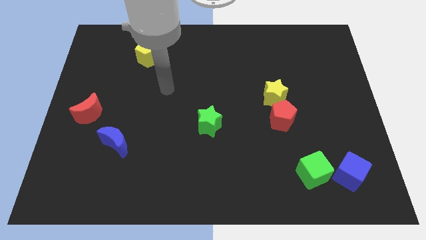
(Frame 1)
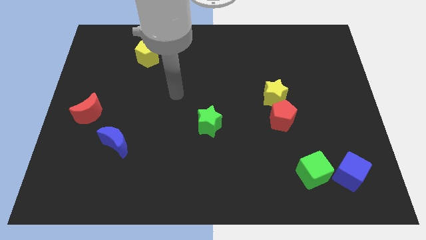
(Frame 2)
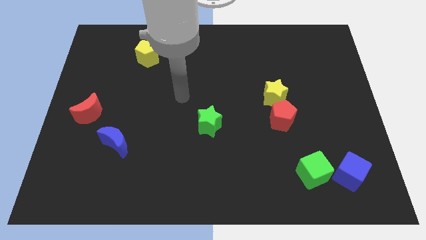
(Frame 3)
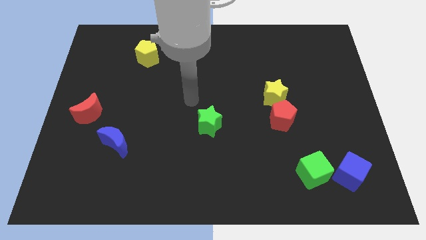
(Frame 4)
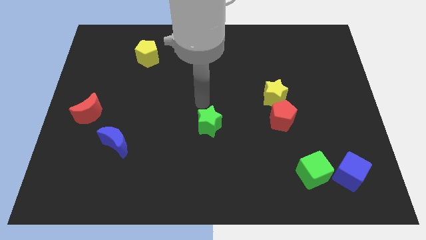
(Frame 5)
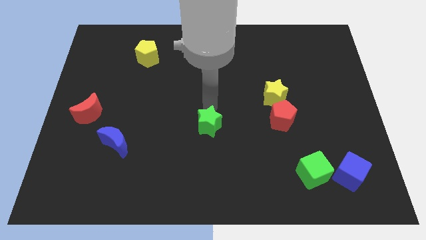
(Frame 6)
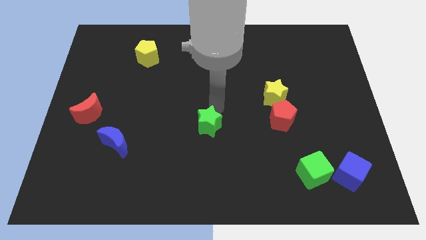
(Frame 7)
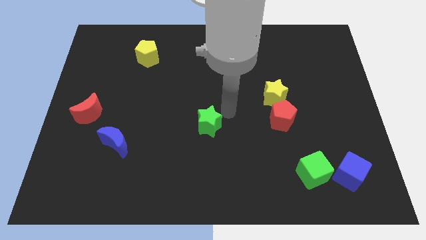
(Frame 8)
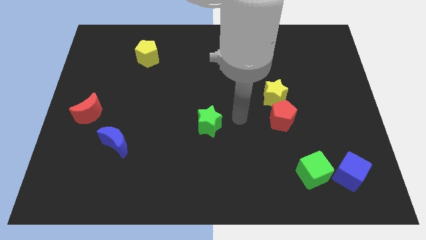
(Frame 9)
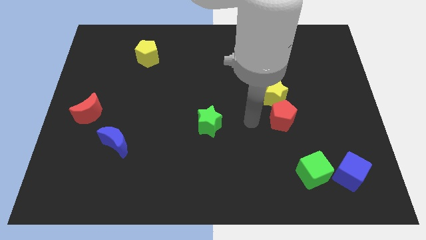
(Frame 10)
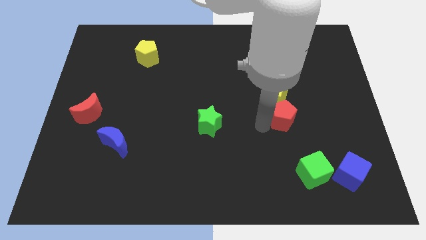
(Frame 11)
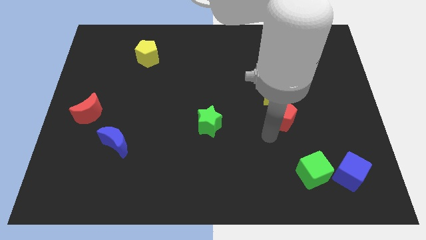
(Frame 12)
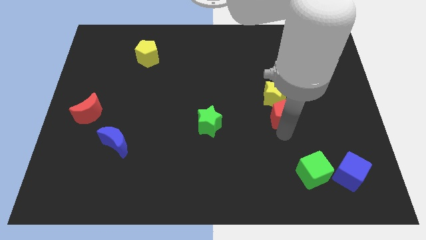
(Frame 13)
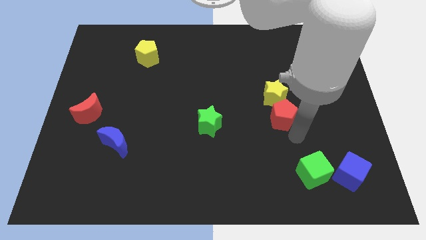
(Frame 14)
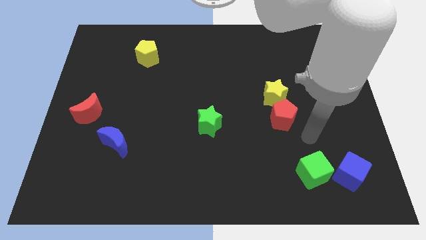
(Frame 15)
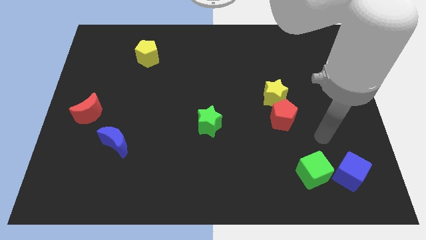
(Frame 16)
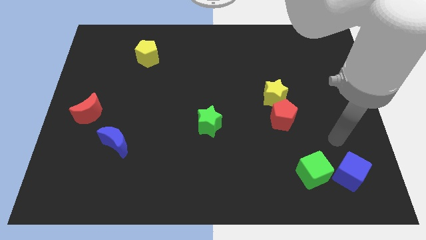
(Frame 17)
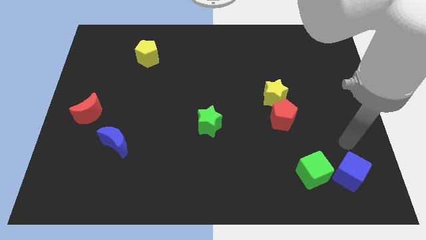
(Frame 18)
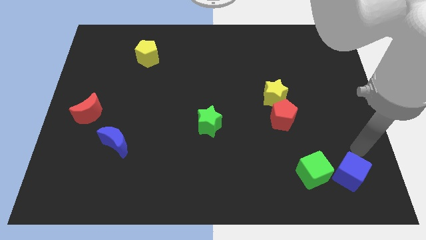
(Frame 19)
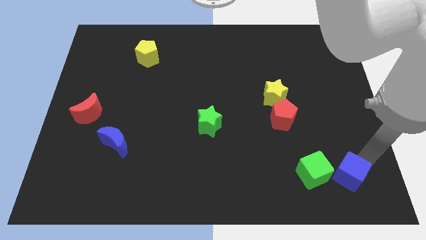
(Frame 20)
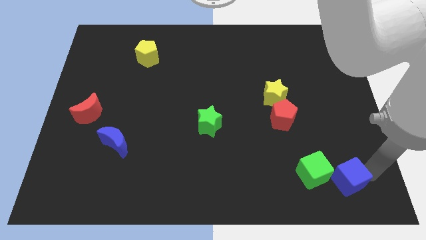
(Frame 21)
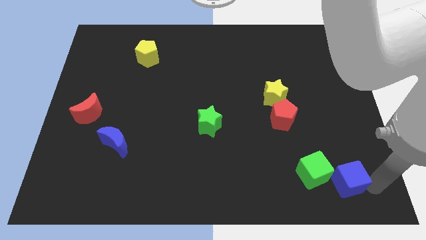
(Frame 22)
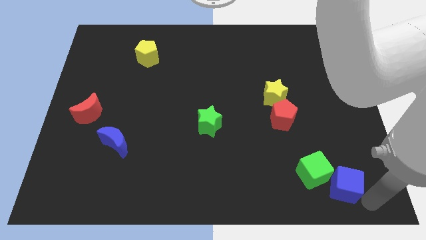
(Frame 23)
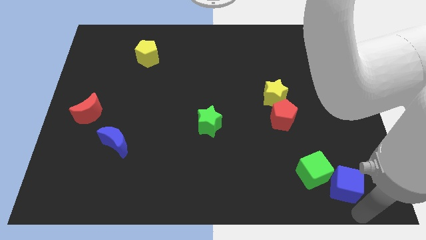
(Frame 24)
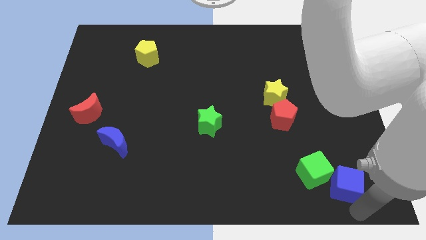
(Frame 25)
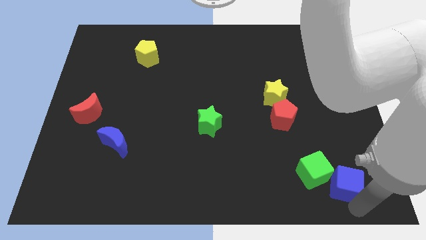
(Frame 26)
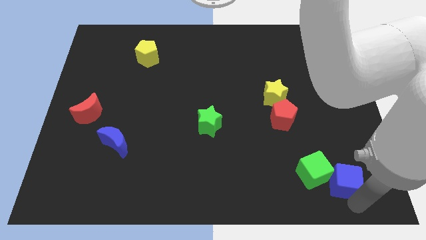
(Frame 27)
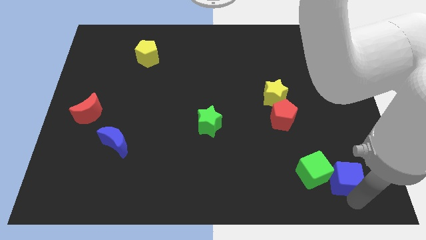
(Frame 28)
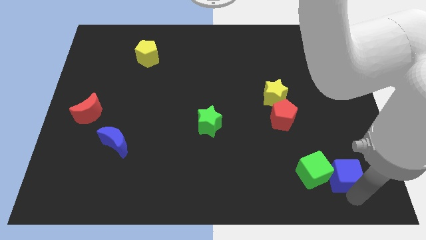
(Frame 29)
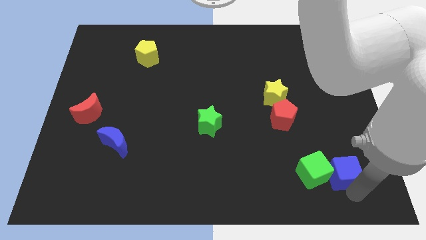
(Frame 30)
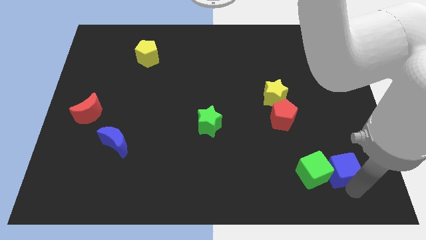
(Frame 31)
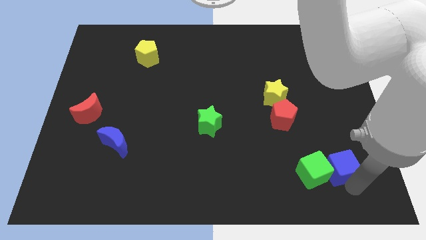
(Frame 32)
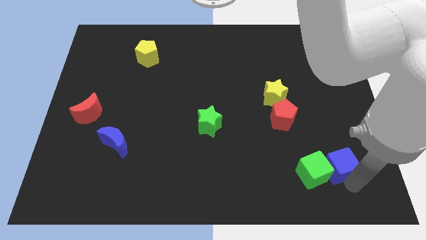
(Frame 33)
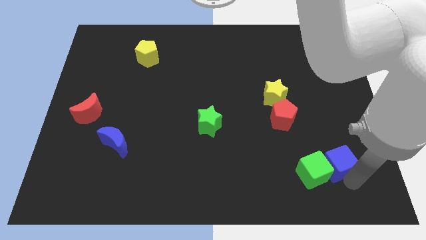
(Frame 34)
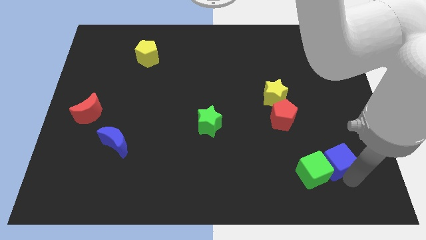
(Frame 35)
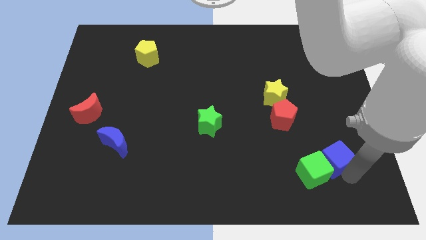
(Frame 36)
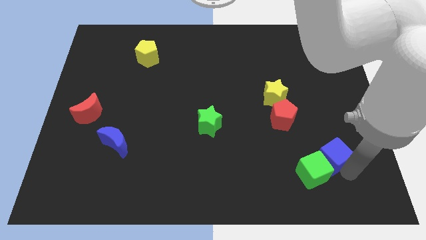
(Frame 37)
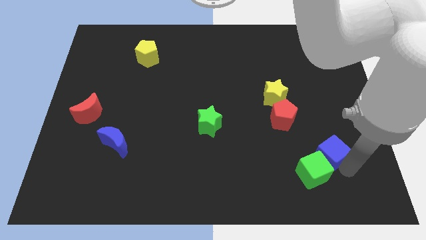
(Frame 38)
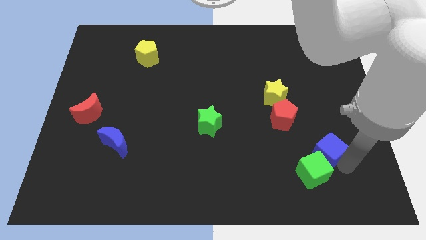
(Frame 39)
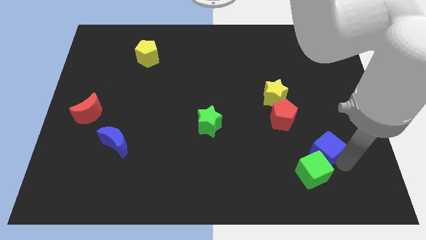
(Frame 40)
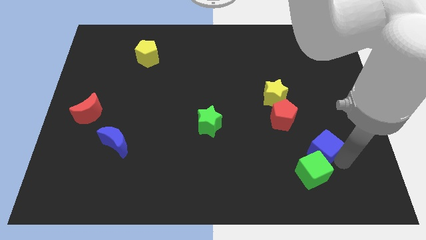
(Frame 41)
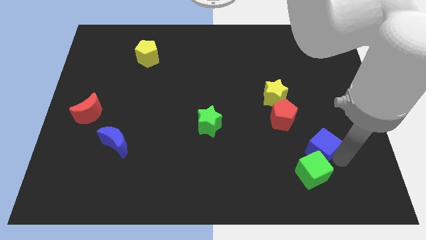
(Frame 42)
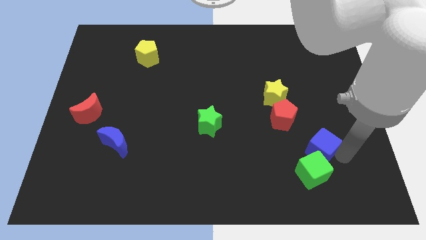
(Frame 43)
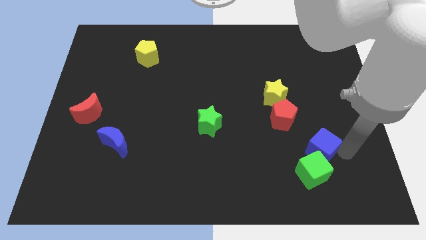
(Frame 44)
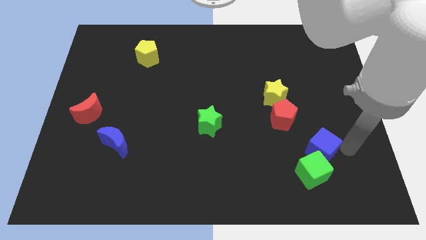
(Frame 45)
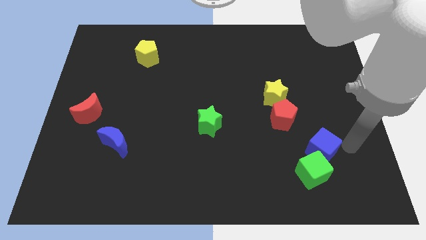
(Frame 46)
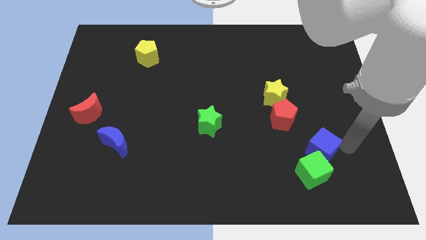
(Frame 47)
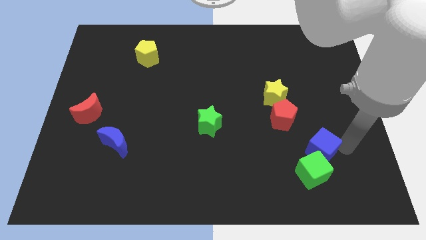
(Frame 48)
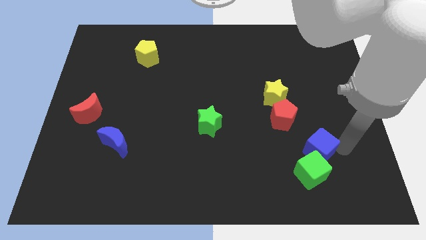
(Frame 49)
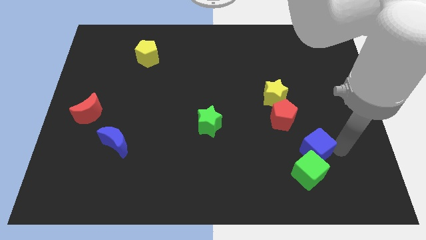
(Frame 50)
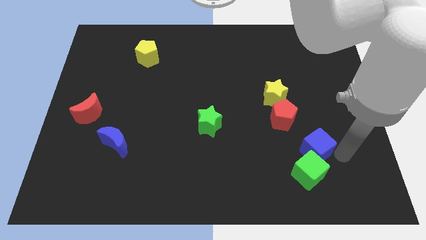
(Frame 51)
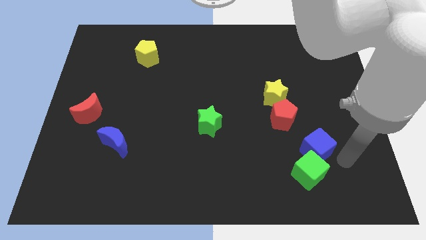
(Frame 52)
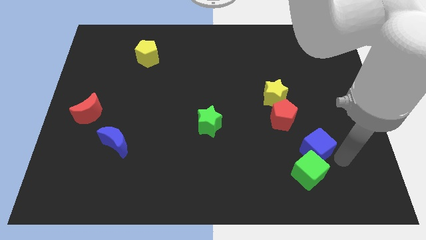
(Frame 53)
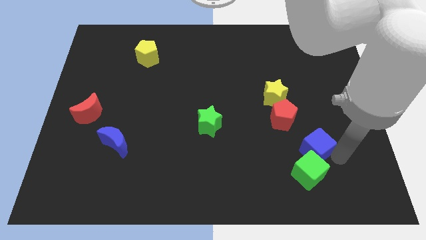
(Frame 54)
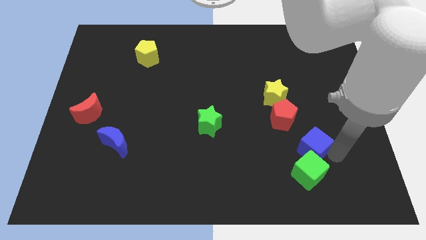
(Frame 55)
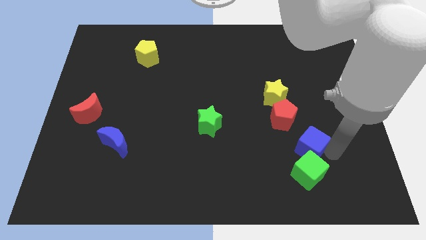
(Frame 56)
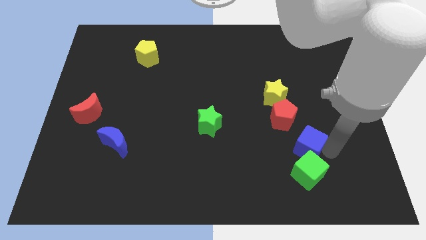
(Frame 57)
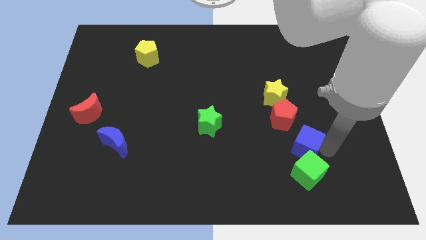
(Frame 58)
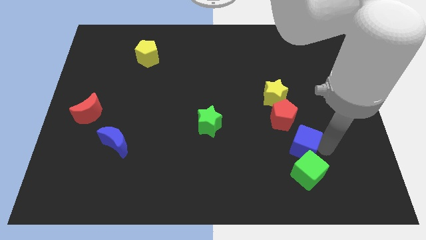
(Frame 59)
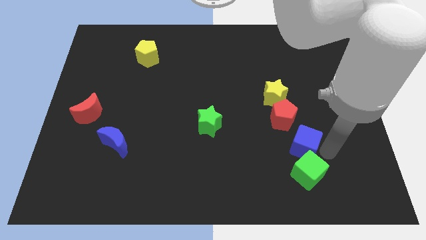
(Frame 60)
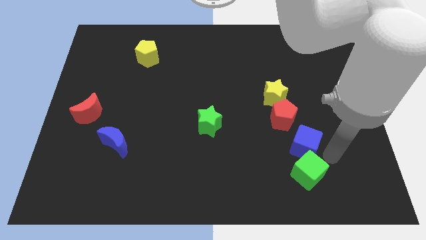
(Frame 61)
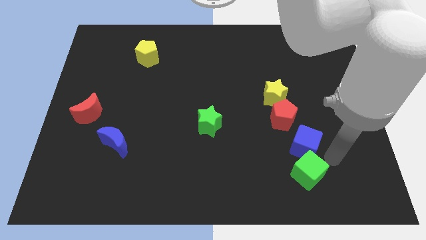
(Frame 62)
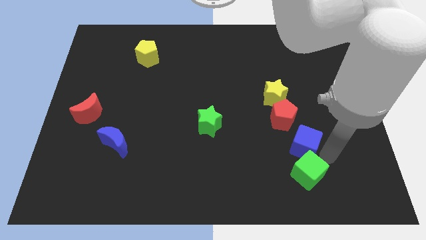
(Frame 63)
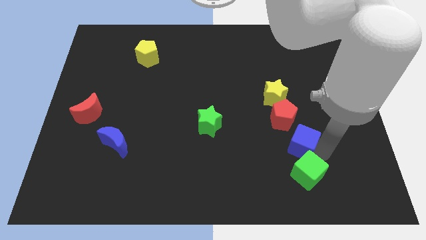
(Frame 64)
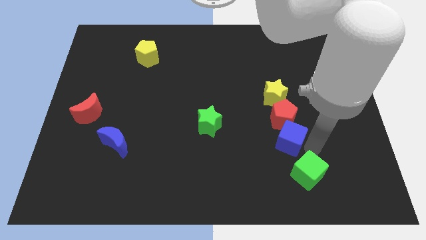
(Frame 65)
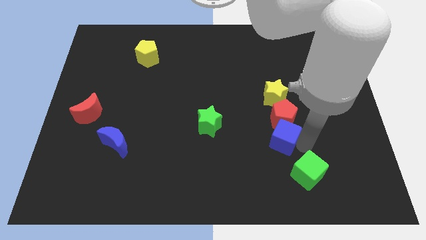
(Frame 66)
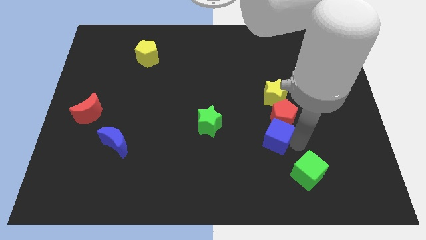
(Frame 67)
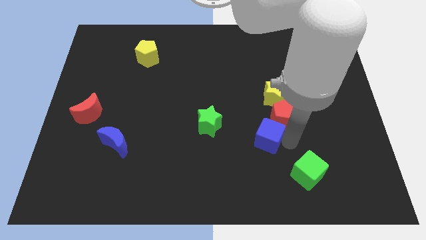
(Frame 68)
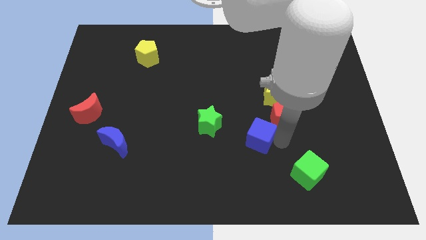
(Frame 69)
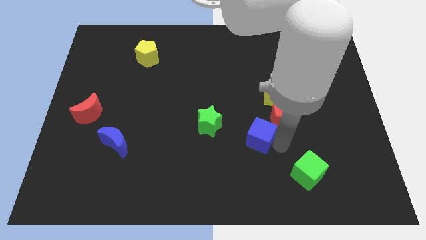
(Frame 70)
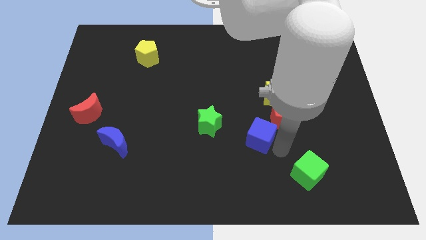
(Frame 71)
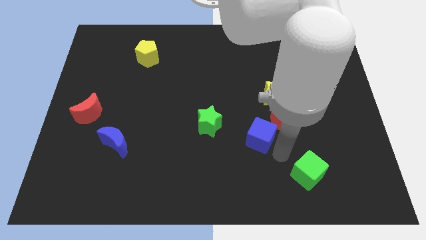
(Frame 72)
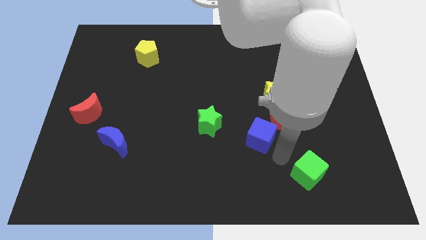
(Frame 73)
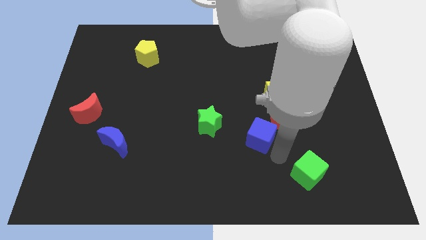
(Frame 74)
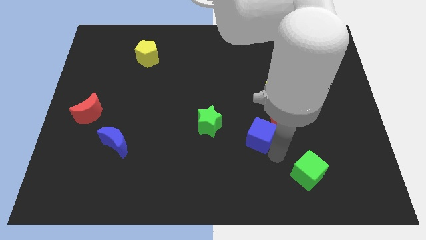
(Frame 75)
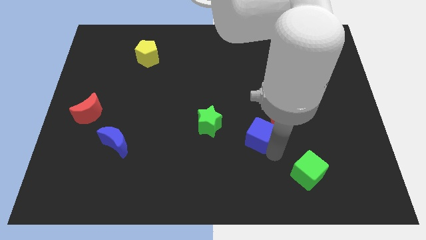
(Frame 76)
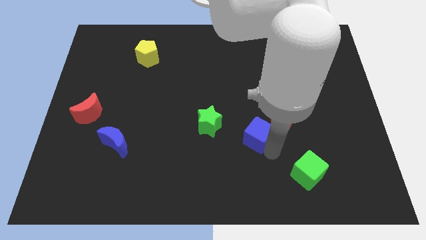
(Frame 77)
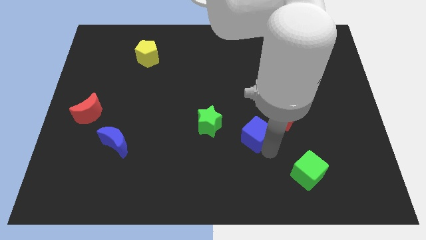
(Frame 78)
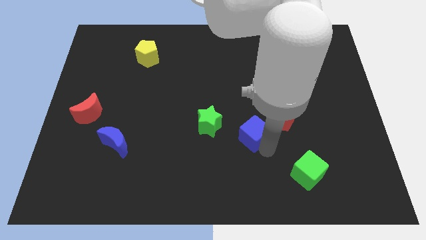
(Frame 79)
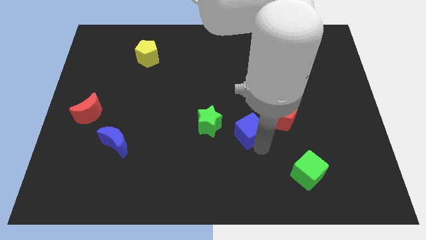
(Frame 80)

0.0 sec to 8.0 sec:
move the blue cube to the center of the board
